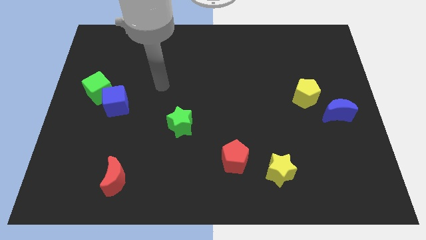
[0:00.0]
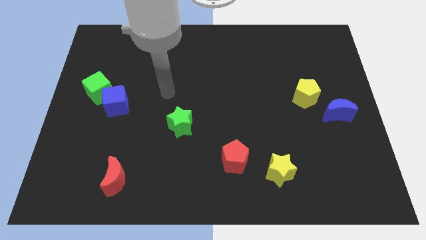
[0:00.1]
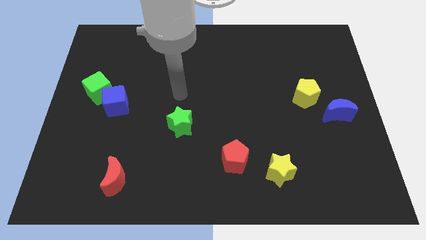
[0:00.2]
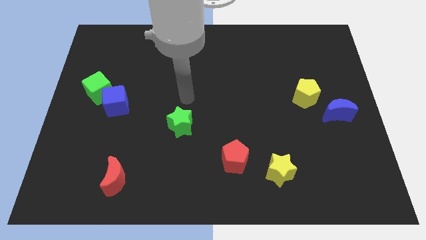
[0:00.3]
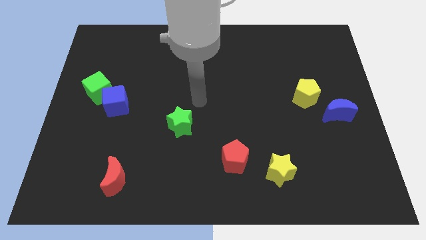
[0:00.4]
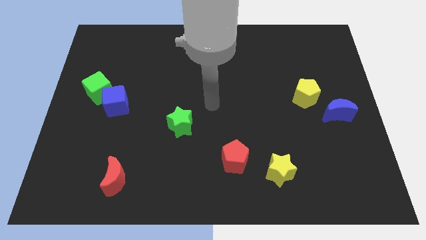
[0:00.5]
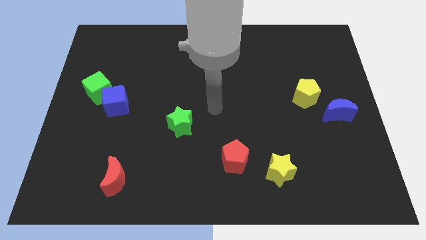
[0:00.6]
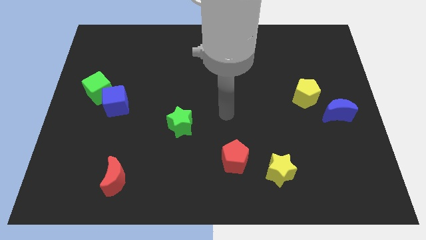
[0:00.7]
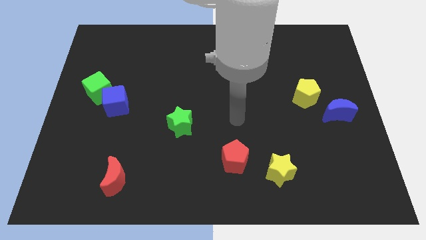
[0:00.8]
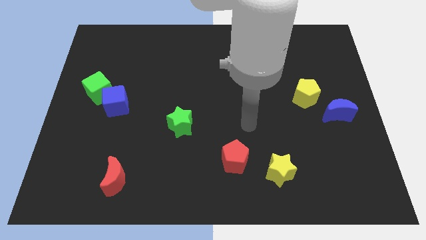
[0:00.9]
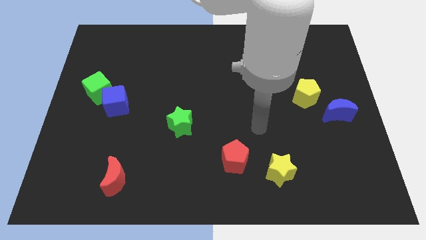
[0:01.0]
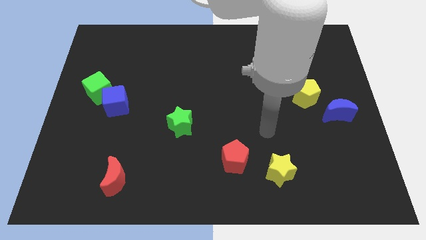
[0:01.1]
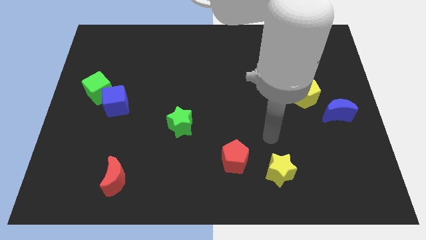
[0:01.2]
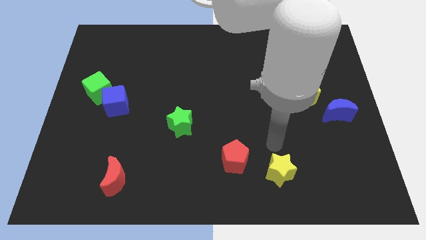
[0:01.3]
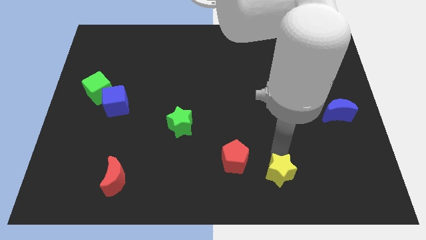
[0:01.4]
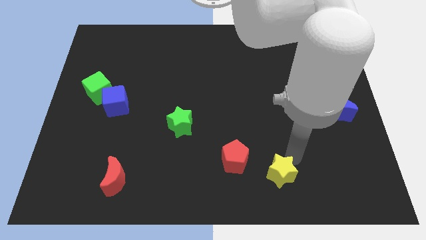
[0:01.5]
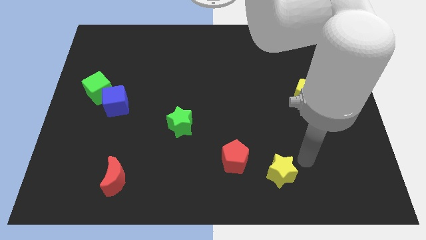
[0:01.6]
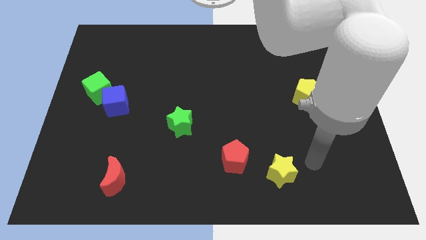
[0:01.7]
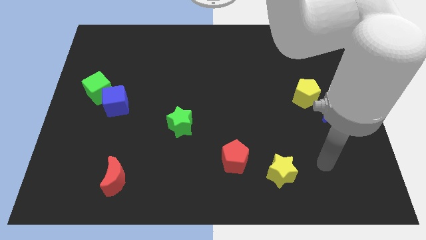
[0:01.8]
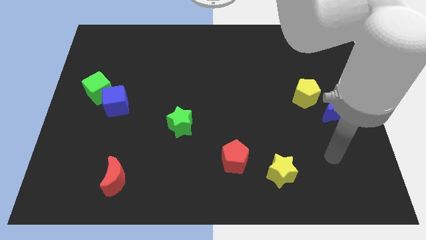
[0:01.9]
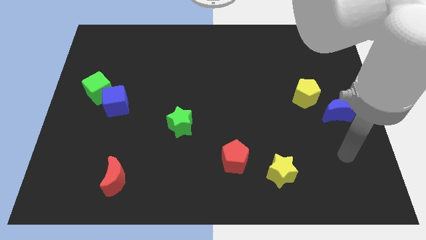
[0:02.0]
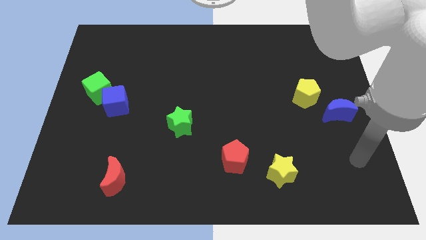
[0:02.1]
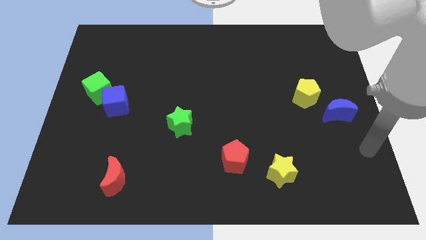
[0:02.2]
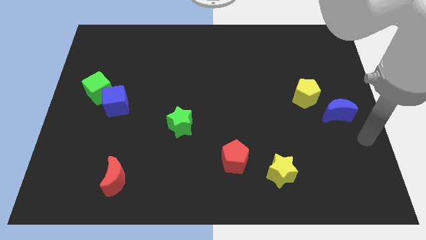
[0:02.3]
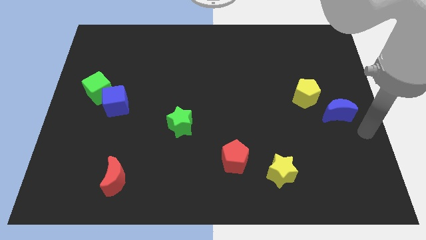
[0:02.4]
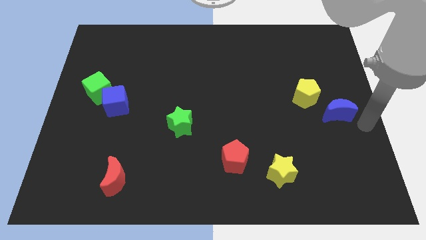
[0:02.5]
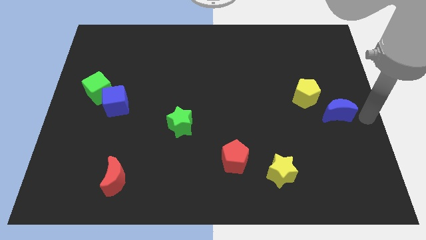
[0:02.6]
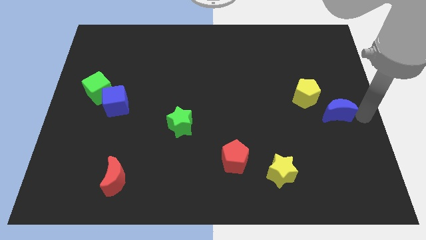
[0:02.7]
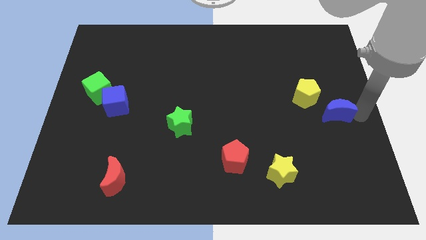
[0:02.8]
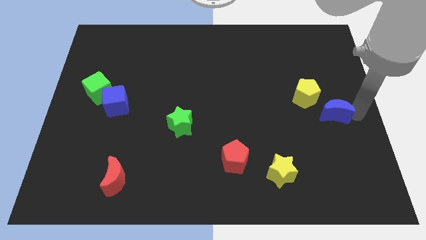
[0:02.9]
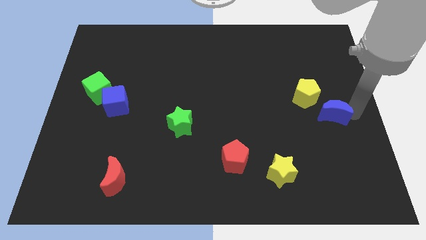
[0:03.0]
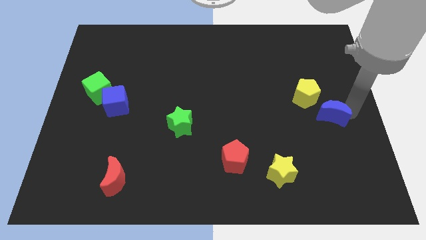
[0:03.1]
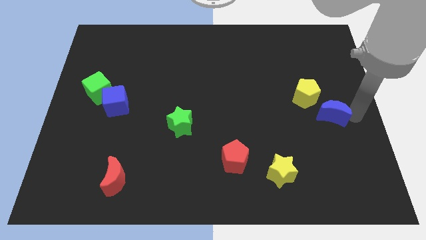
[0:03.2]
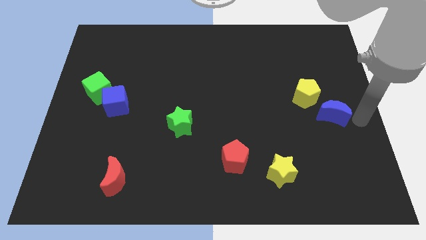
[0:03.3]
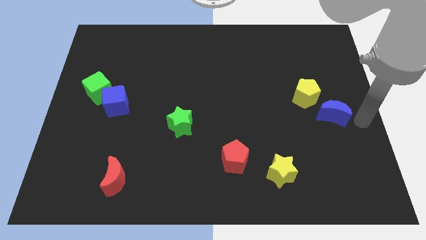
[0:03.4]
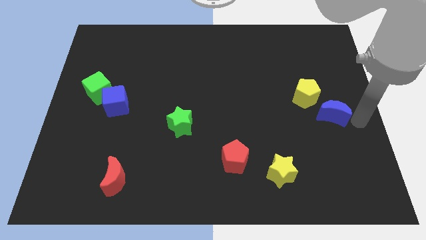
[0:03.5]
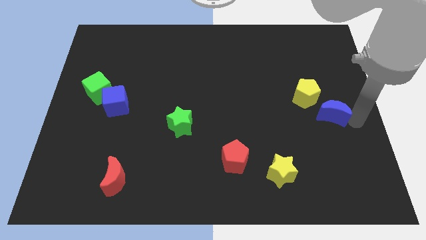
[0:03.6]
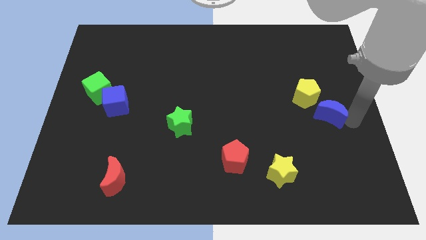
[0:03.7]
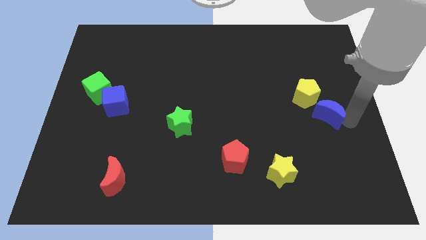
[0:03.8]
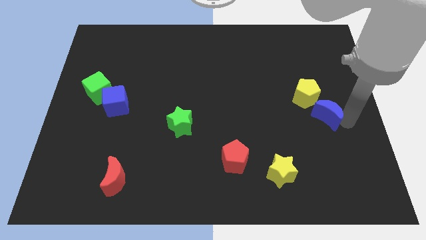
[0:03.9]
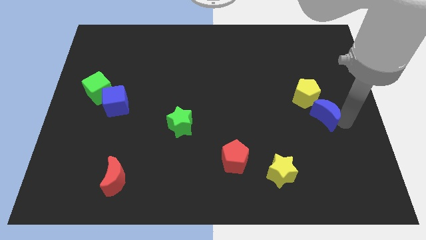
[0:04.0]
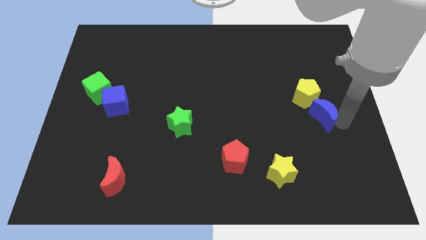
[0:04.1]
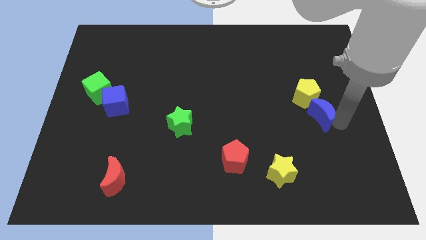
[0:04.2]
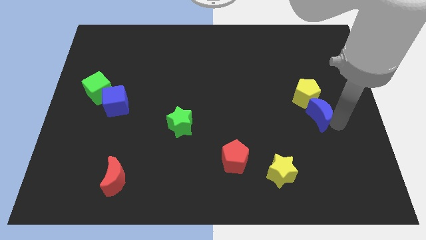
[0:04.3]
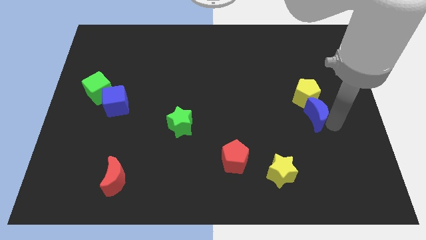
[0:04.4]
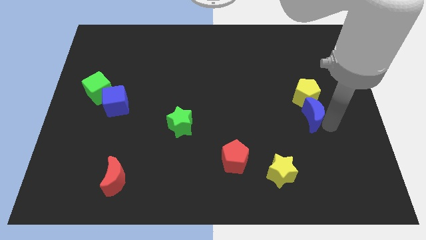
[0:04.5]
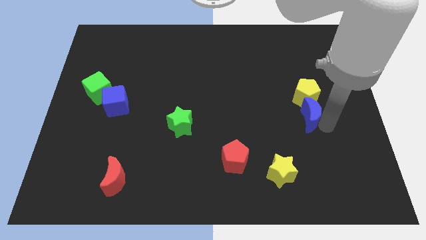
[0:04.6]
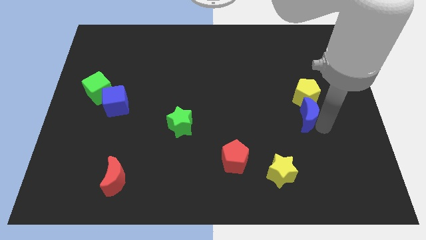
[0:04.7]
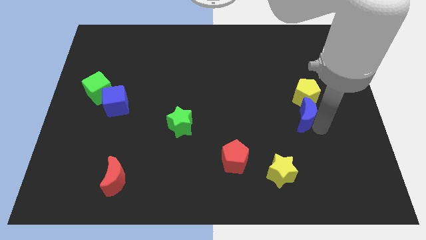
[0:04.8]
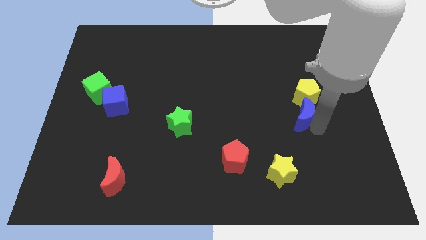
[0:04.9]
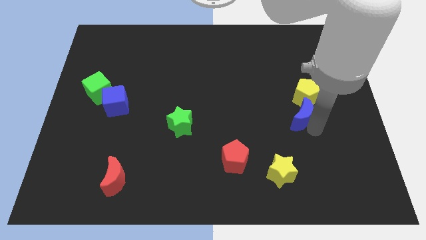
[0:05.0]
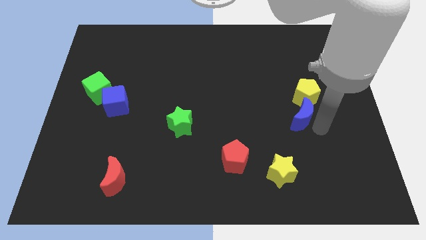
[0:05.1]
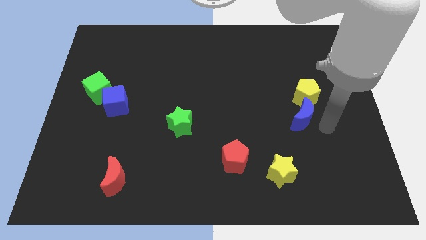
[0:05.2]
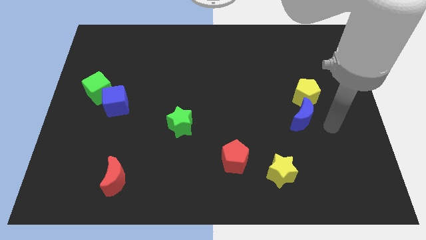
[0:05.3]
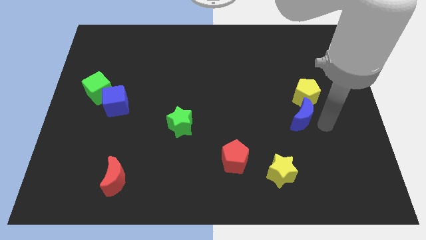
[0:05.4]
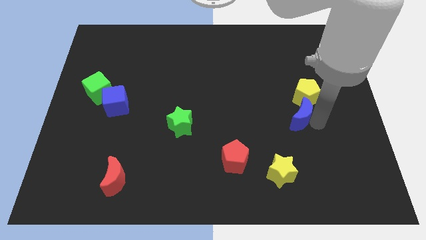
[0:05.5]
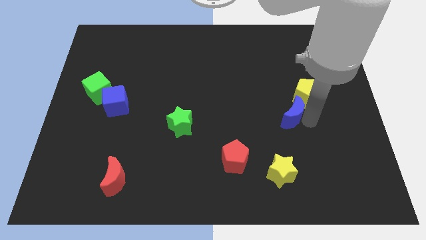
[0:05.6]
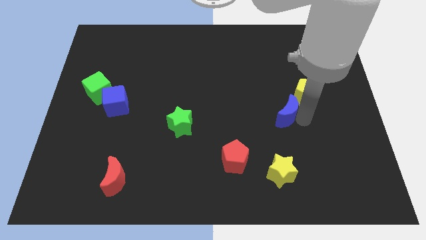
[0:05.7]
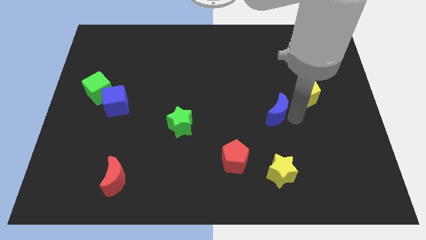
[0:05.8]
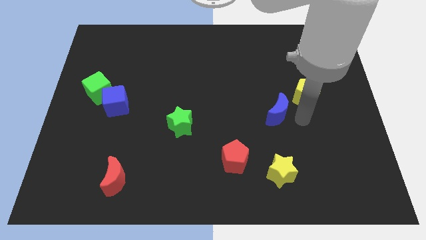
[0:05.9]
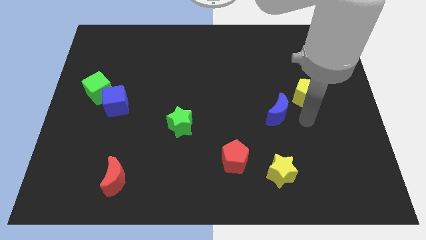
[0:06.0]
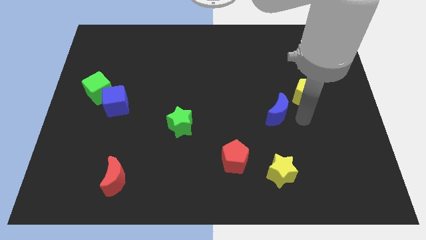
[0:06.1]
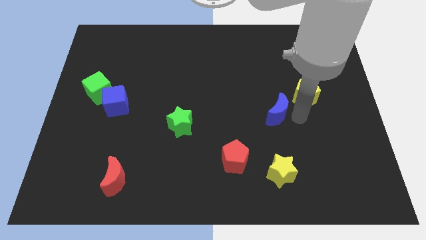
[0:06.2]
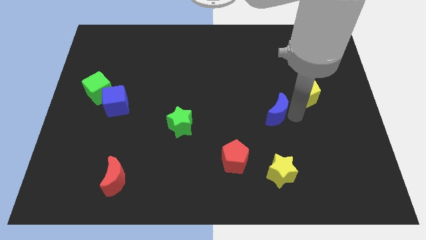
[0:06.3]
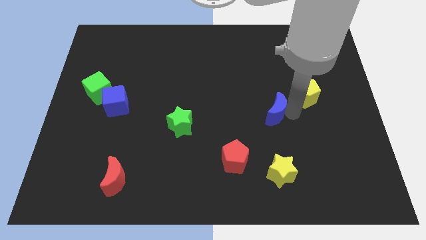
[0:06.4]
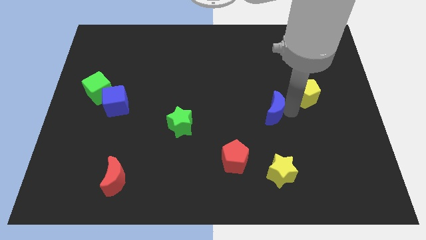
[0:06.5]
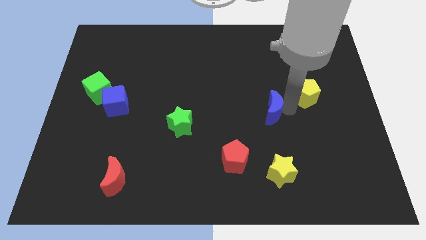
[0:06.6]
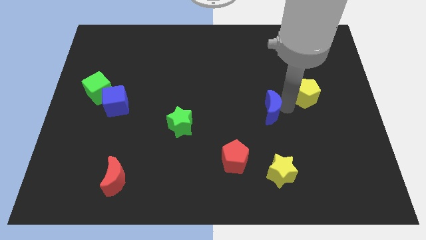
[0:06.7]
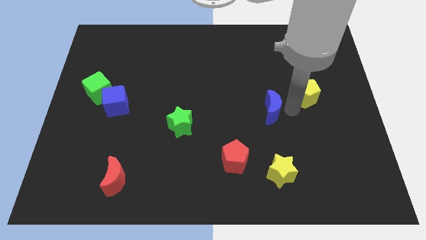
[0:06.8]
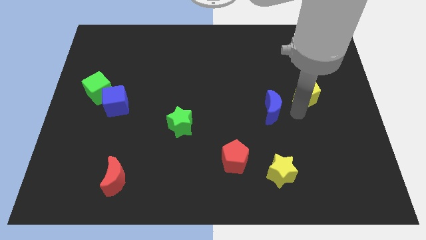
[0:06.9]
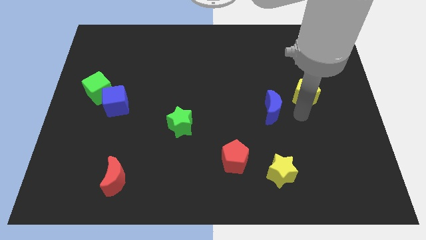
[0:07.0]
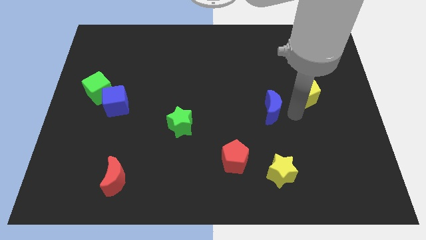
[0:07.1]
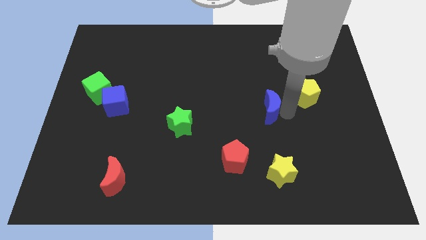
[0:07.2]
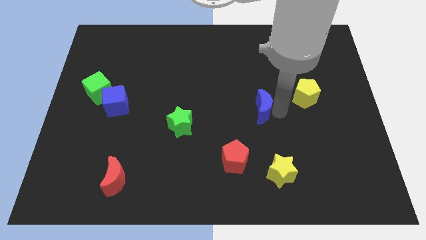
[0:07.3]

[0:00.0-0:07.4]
move the blue moon to the center
